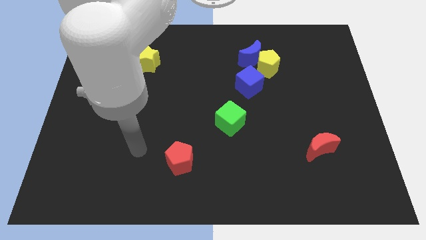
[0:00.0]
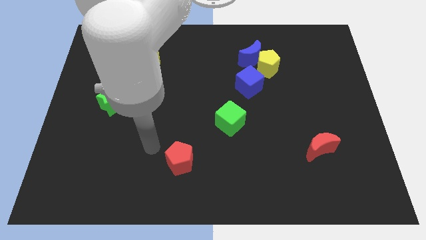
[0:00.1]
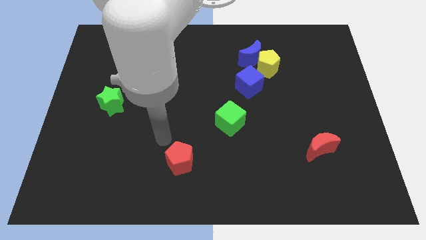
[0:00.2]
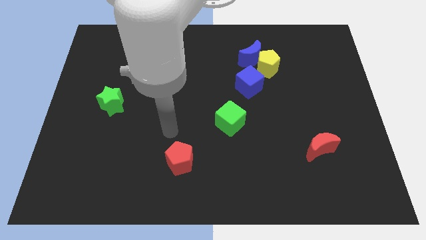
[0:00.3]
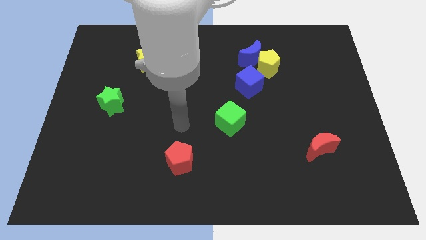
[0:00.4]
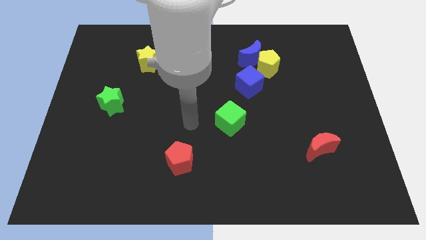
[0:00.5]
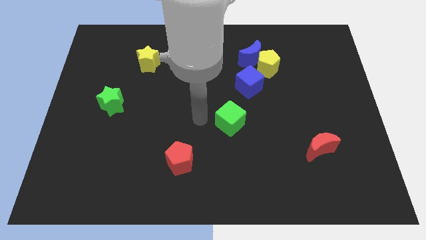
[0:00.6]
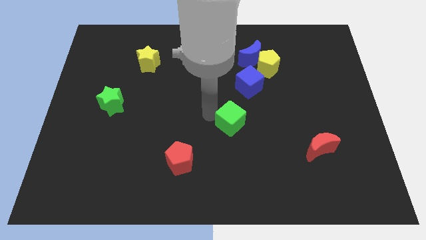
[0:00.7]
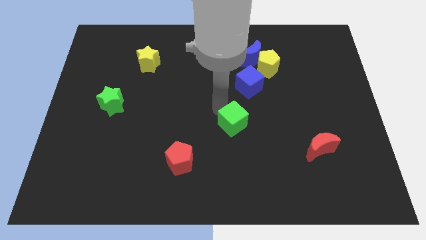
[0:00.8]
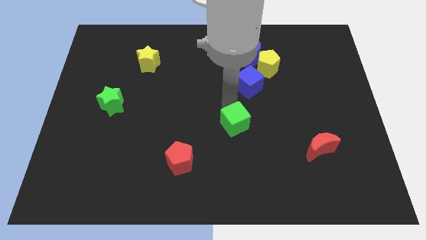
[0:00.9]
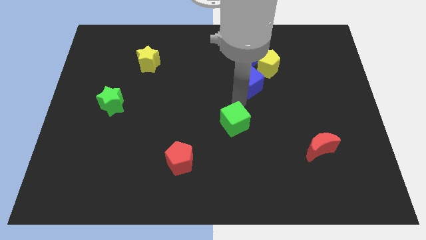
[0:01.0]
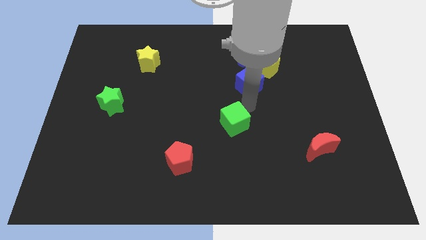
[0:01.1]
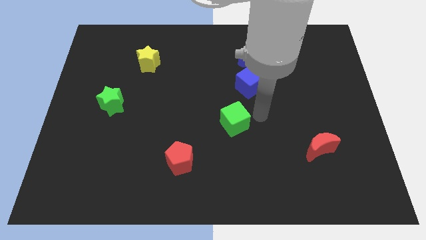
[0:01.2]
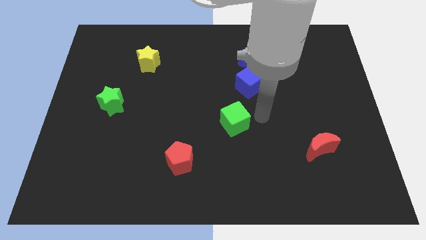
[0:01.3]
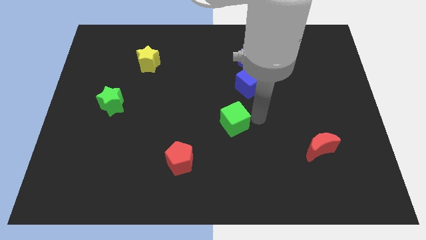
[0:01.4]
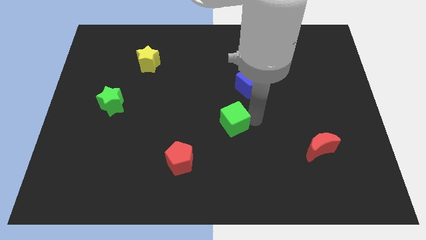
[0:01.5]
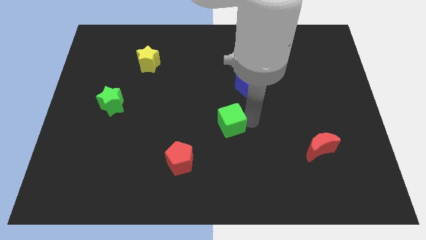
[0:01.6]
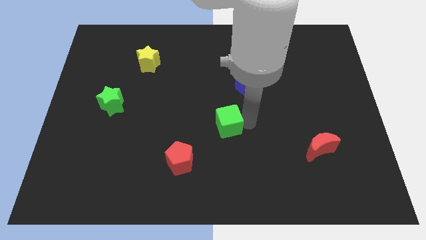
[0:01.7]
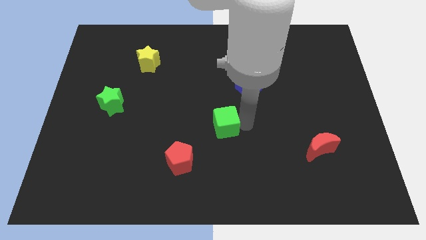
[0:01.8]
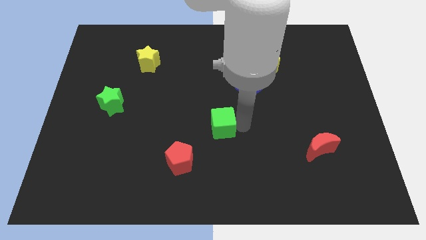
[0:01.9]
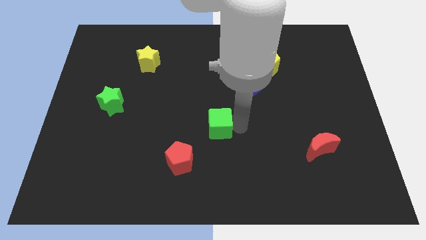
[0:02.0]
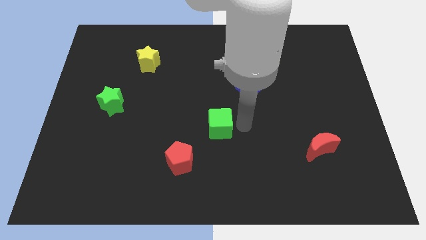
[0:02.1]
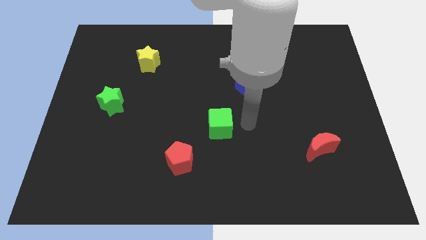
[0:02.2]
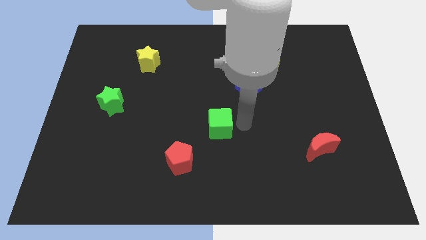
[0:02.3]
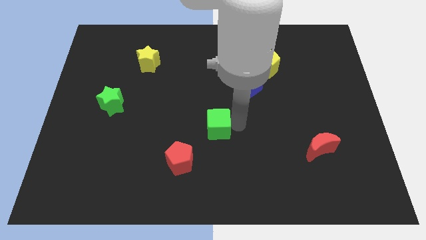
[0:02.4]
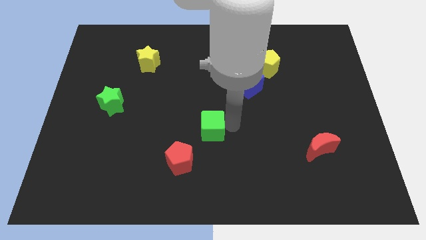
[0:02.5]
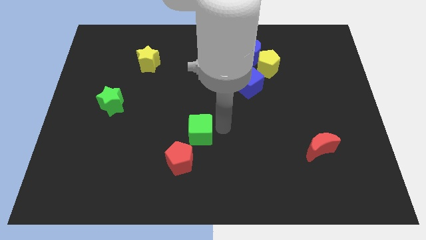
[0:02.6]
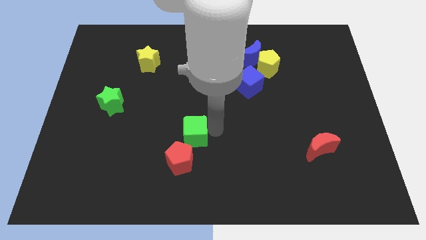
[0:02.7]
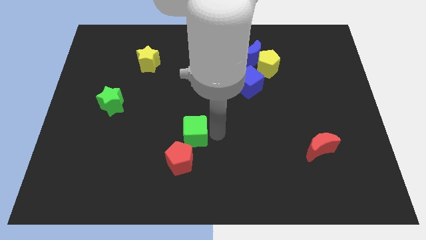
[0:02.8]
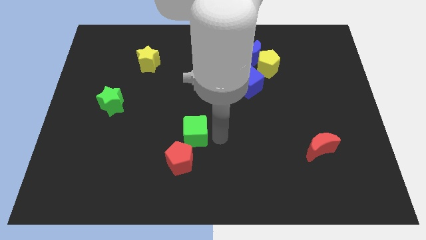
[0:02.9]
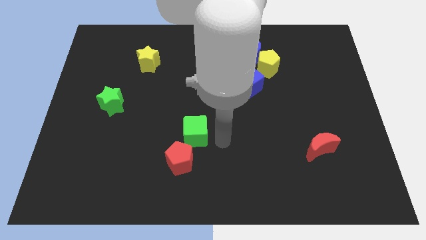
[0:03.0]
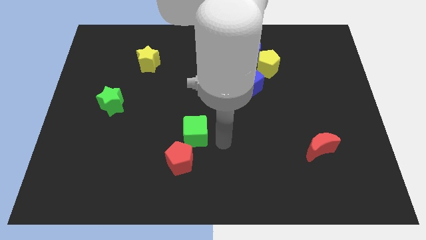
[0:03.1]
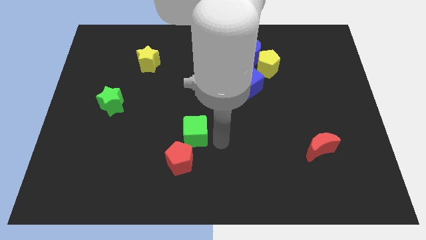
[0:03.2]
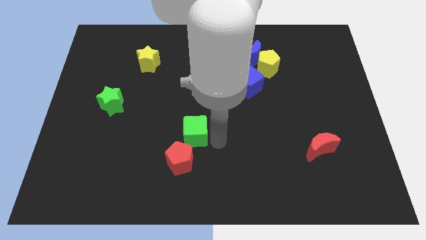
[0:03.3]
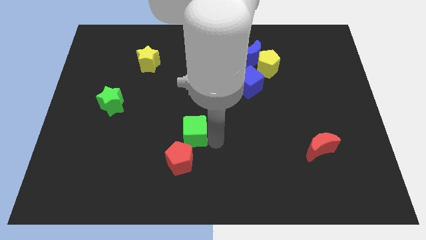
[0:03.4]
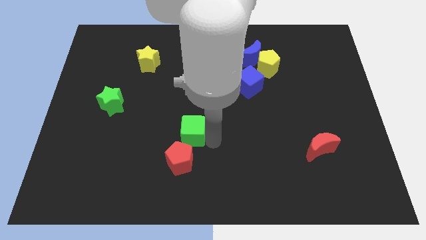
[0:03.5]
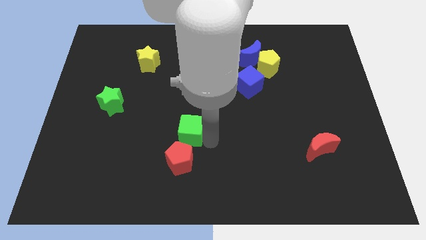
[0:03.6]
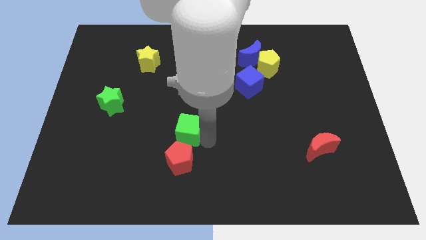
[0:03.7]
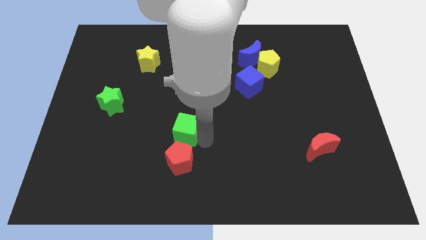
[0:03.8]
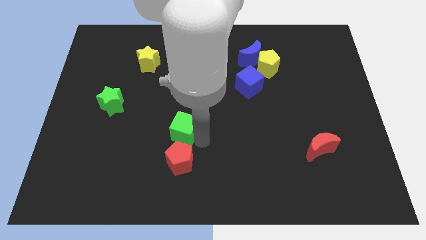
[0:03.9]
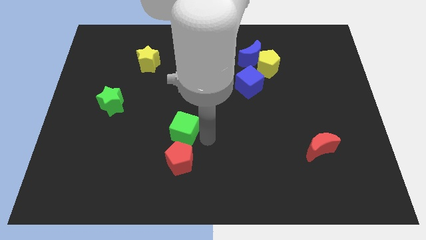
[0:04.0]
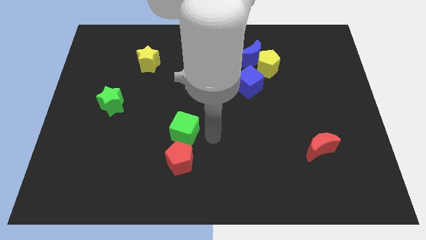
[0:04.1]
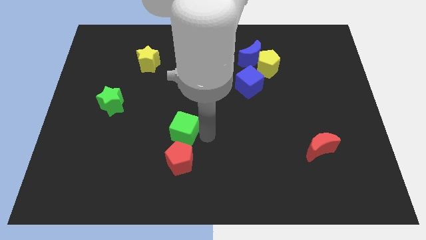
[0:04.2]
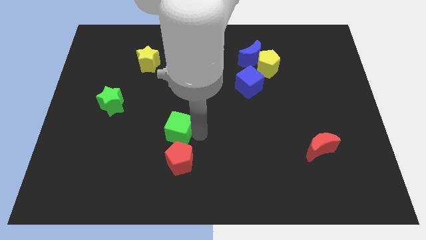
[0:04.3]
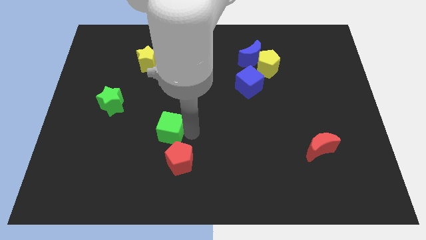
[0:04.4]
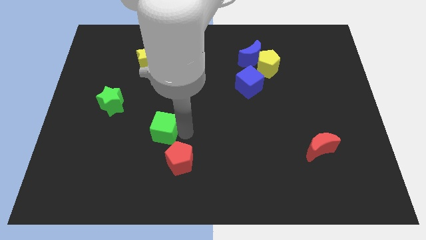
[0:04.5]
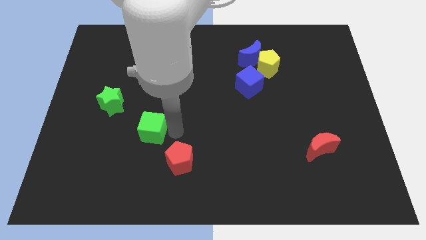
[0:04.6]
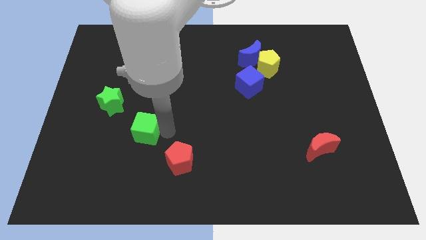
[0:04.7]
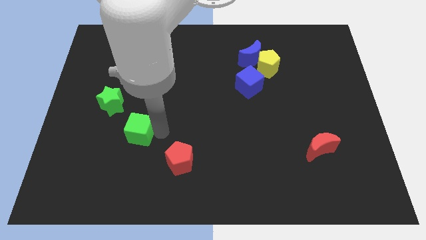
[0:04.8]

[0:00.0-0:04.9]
slide the green cube to the left

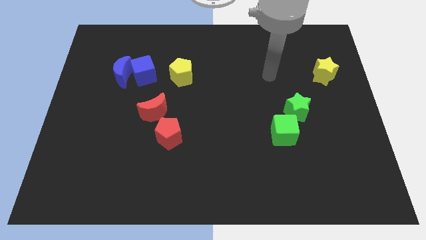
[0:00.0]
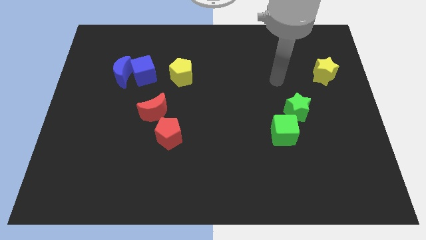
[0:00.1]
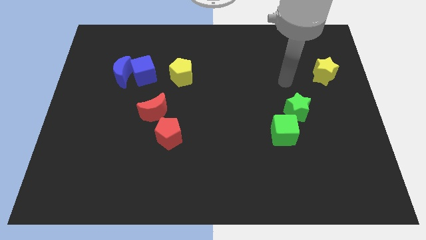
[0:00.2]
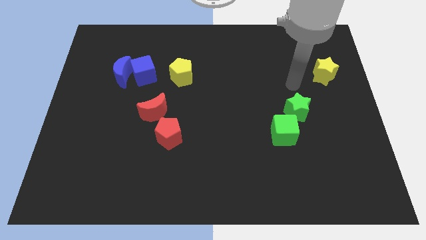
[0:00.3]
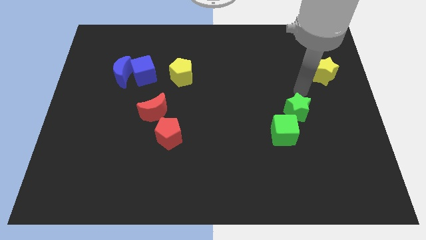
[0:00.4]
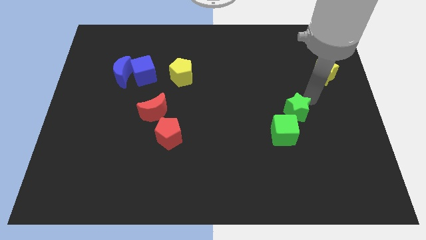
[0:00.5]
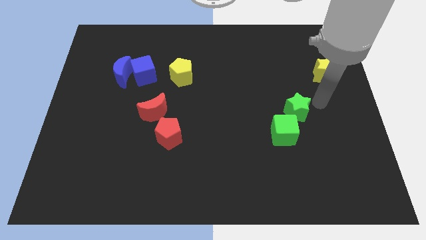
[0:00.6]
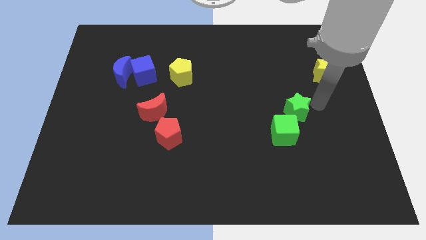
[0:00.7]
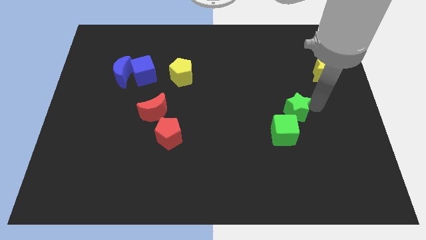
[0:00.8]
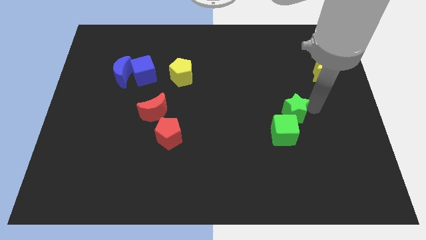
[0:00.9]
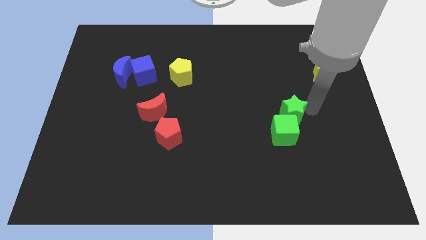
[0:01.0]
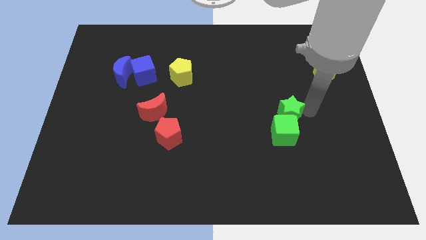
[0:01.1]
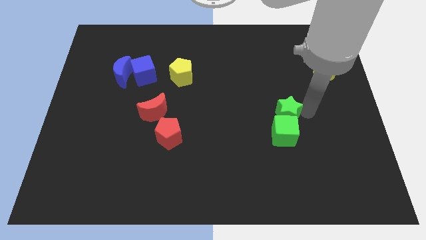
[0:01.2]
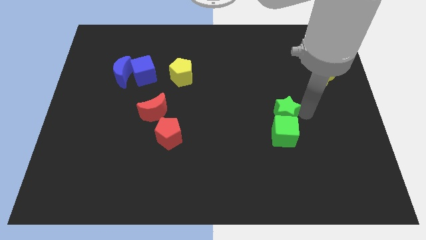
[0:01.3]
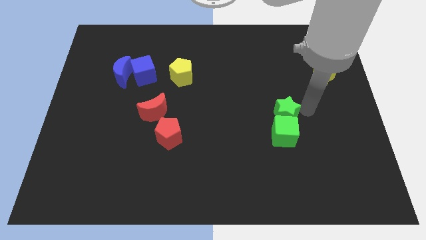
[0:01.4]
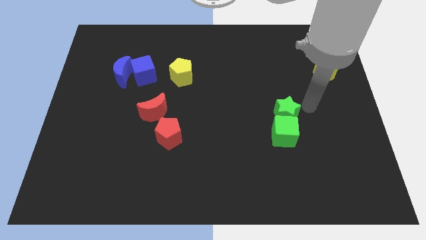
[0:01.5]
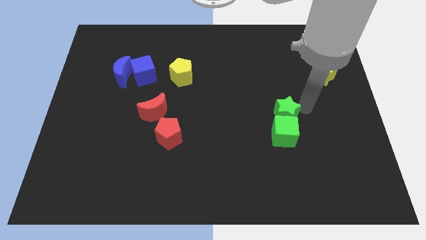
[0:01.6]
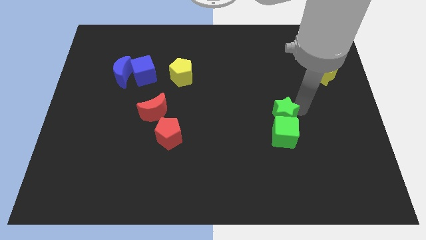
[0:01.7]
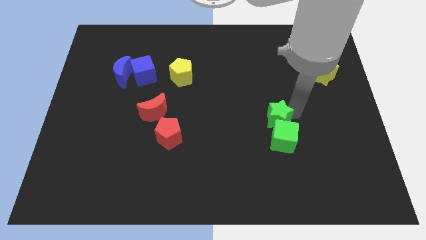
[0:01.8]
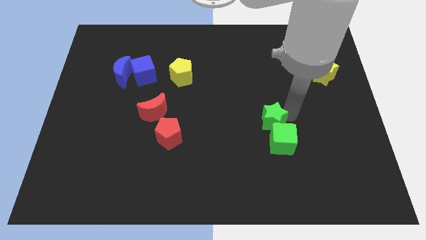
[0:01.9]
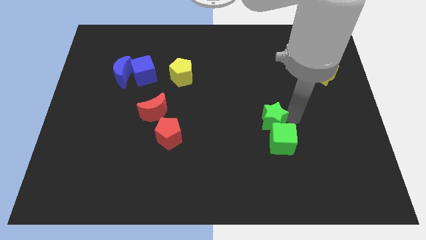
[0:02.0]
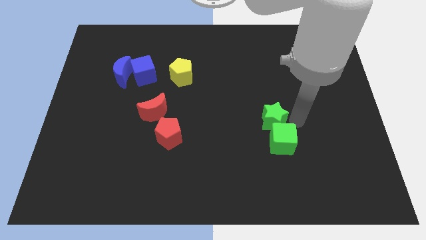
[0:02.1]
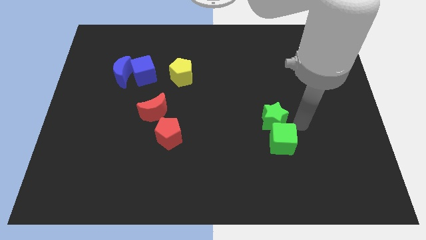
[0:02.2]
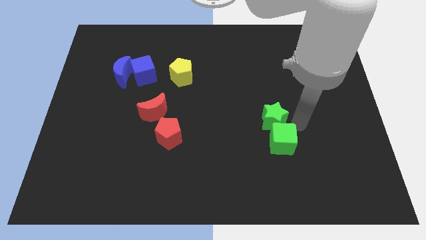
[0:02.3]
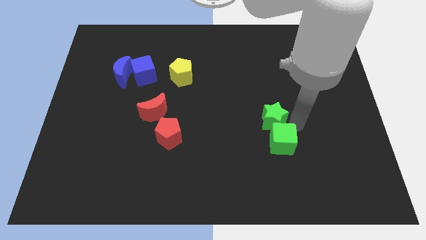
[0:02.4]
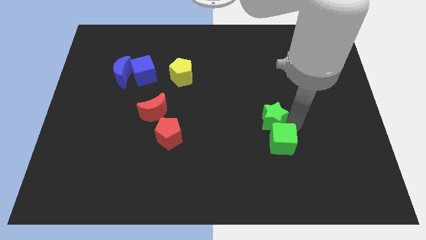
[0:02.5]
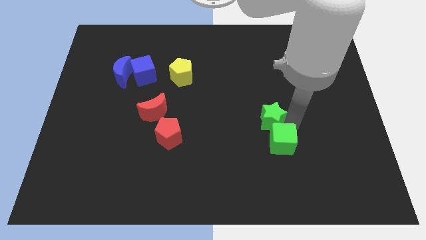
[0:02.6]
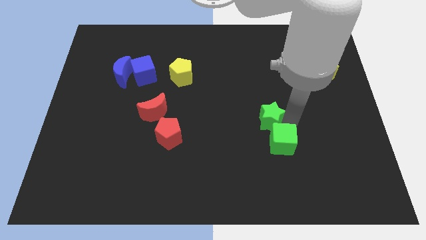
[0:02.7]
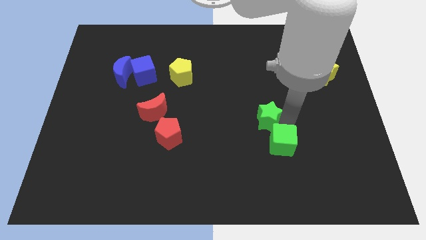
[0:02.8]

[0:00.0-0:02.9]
move the green star a little bit left

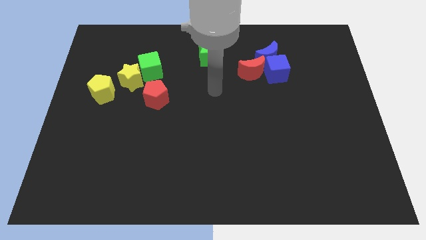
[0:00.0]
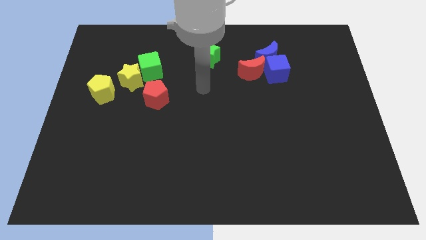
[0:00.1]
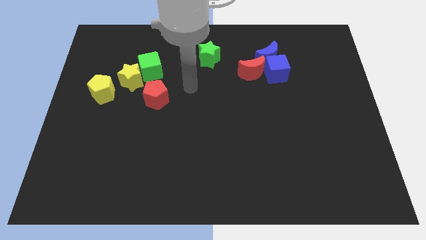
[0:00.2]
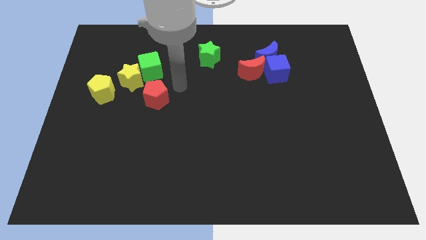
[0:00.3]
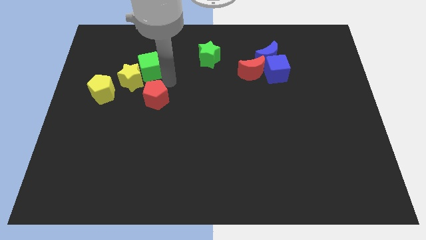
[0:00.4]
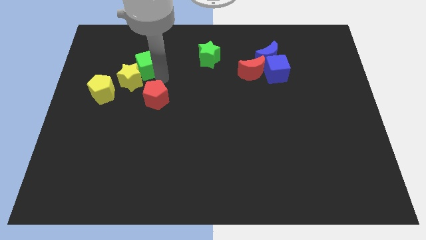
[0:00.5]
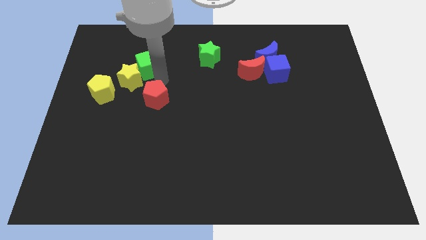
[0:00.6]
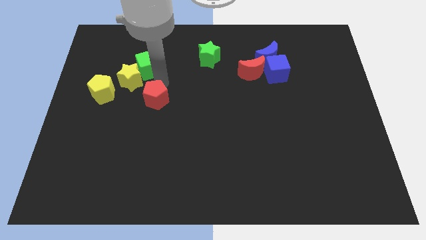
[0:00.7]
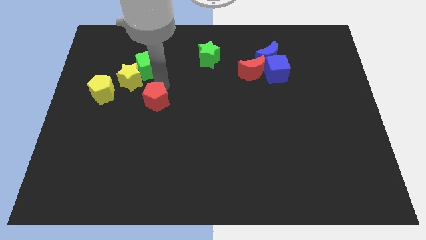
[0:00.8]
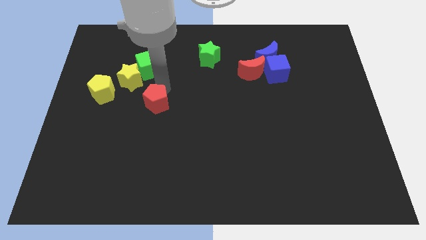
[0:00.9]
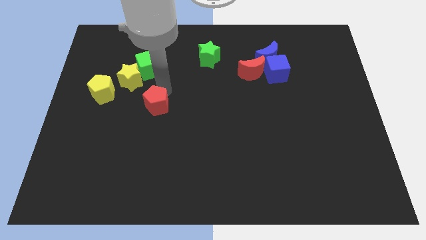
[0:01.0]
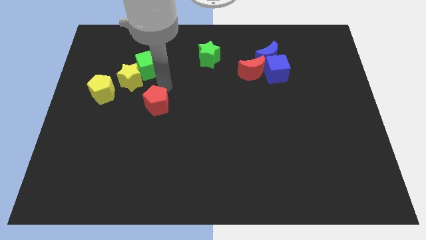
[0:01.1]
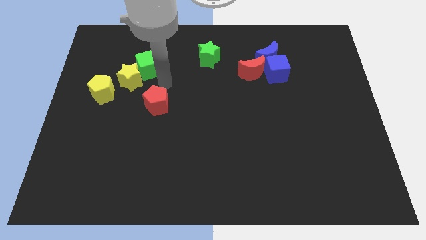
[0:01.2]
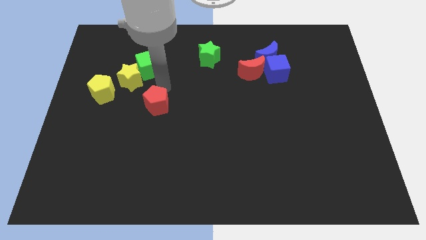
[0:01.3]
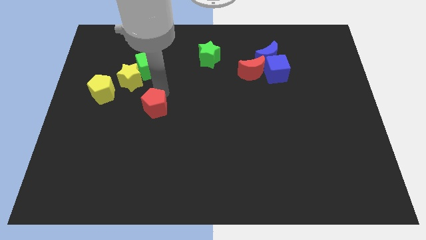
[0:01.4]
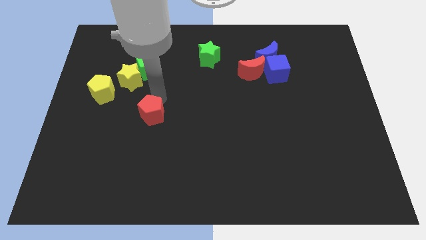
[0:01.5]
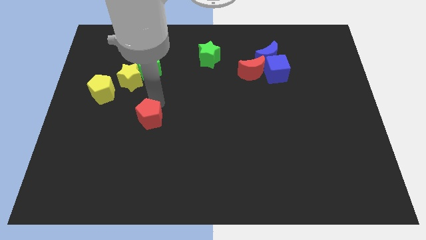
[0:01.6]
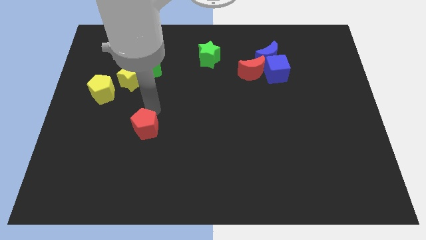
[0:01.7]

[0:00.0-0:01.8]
slide the red pentagon somewhat down
